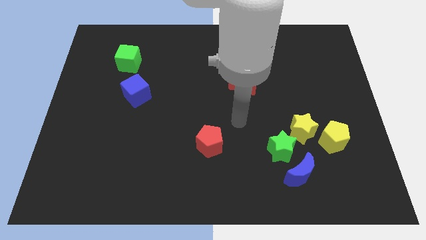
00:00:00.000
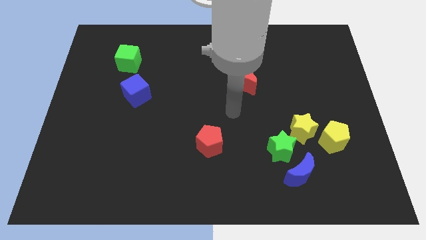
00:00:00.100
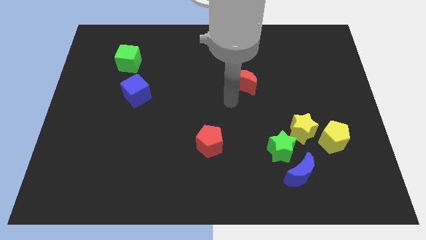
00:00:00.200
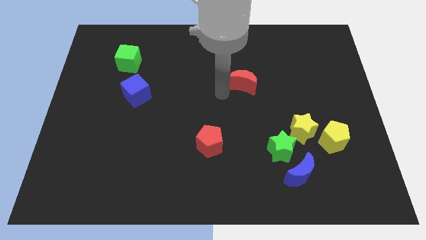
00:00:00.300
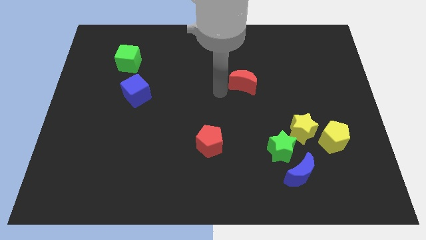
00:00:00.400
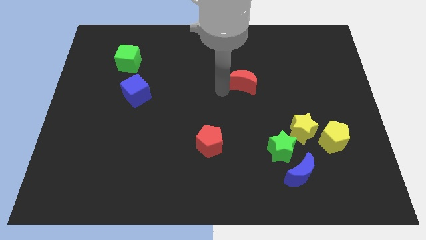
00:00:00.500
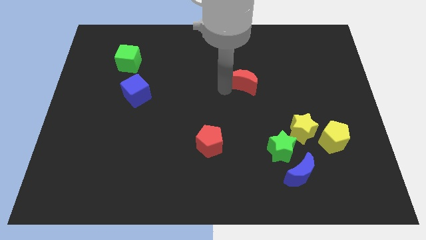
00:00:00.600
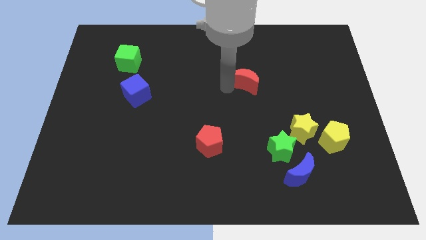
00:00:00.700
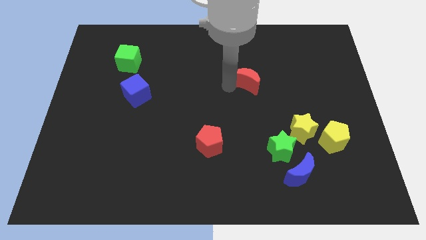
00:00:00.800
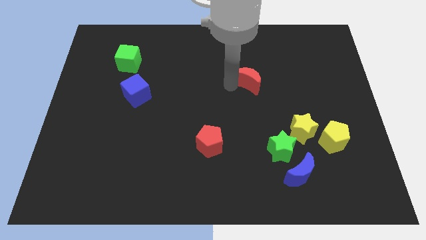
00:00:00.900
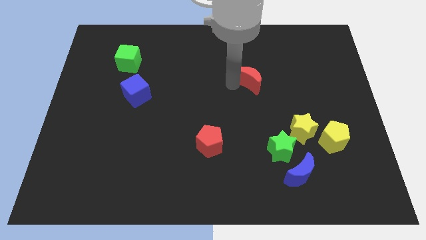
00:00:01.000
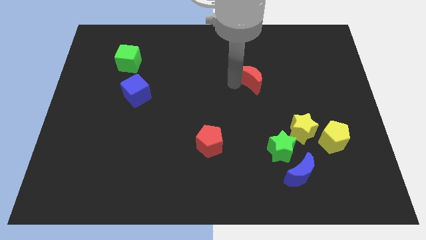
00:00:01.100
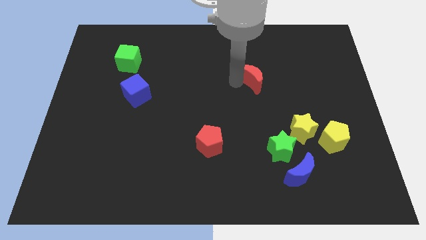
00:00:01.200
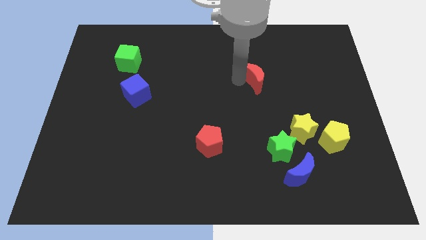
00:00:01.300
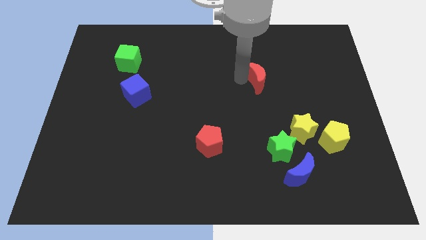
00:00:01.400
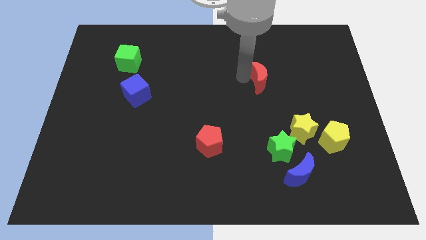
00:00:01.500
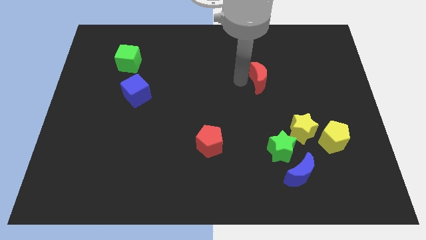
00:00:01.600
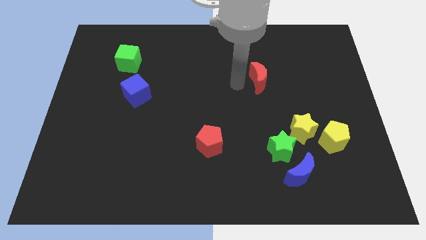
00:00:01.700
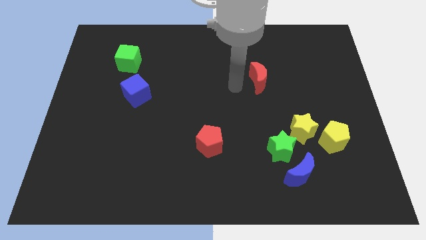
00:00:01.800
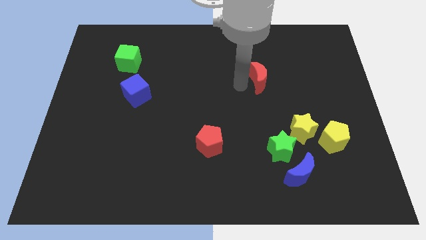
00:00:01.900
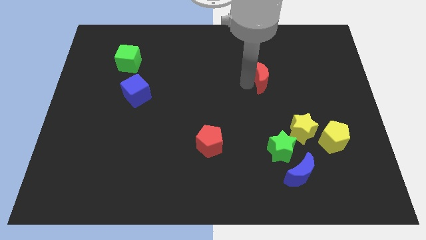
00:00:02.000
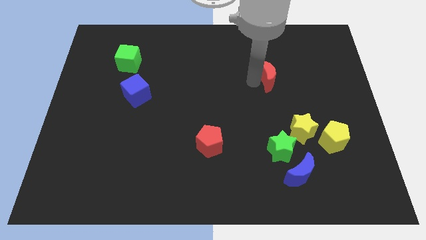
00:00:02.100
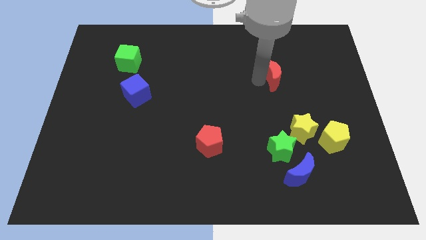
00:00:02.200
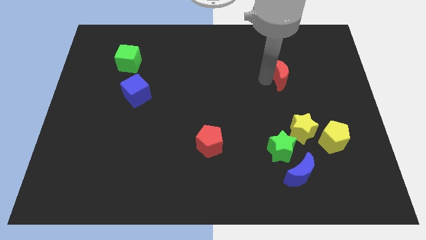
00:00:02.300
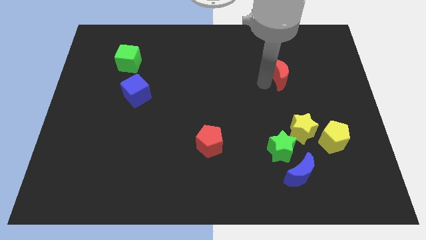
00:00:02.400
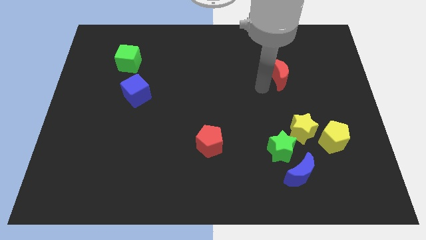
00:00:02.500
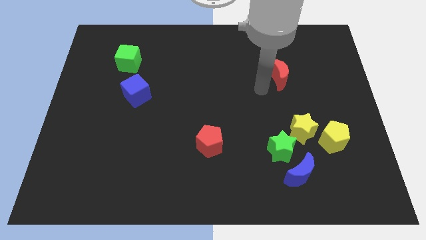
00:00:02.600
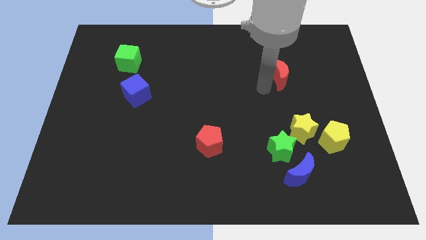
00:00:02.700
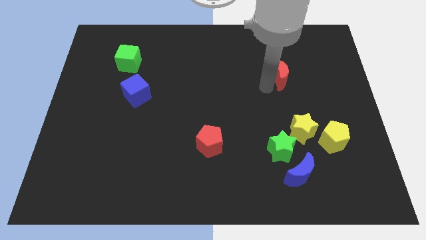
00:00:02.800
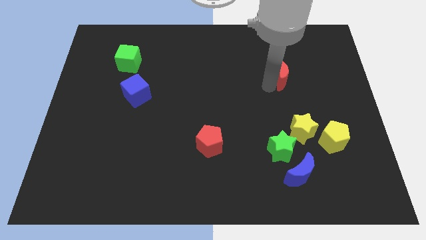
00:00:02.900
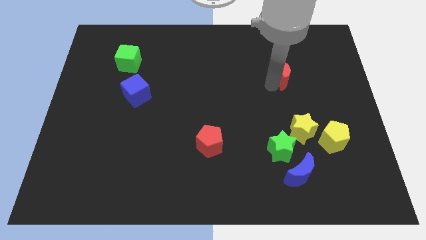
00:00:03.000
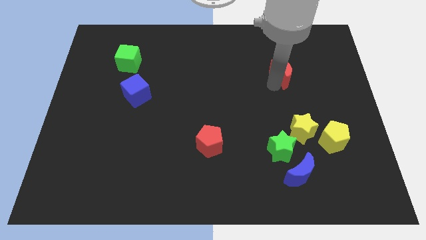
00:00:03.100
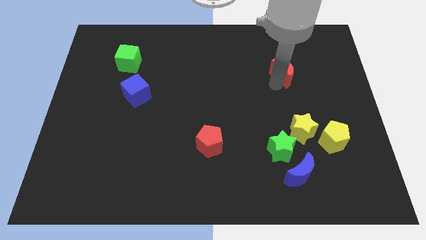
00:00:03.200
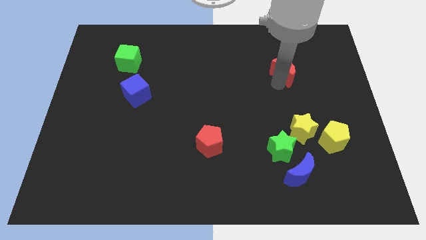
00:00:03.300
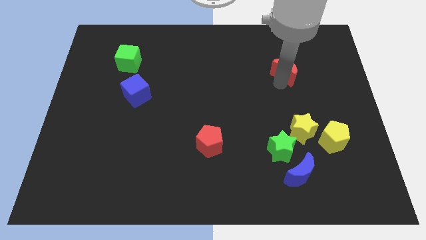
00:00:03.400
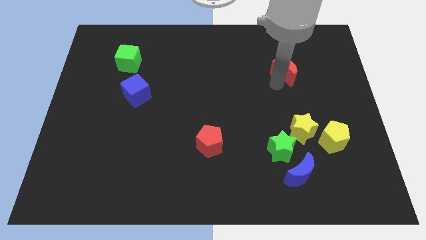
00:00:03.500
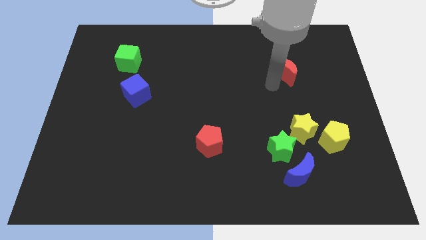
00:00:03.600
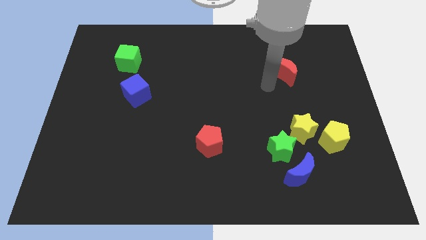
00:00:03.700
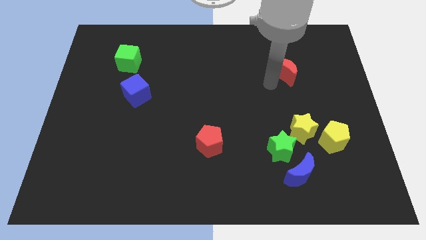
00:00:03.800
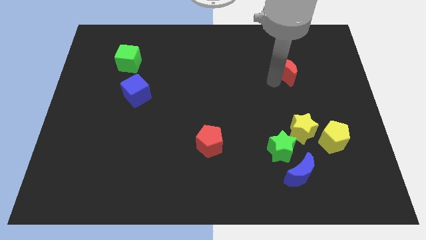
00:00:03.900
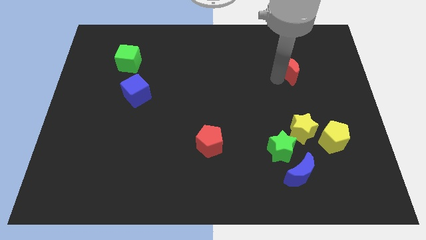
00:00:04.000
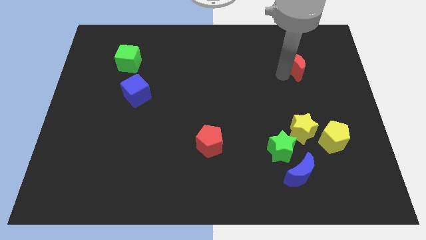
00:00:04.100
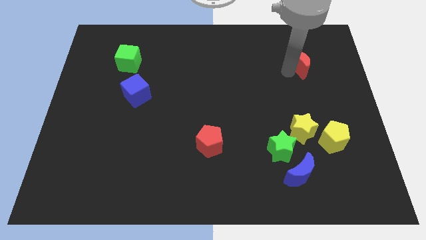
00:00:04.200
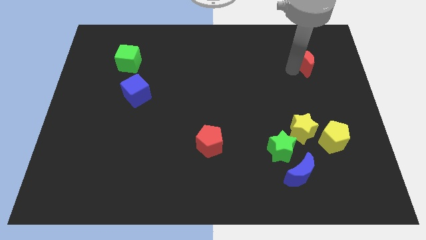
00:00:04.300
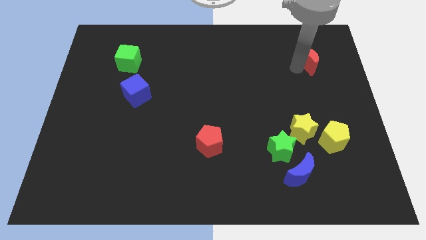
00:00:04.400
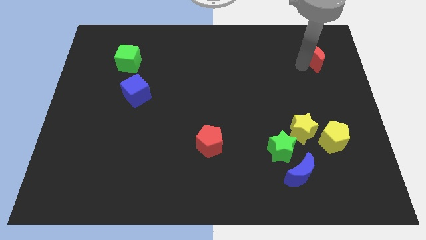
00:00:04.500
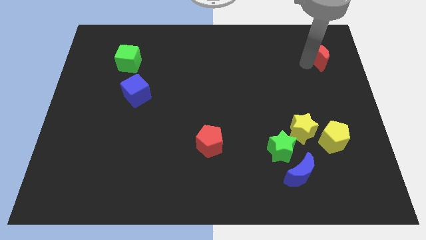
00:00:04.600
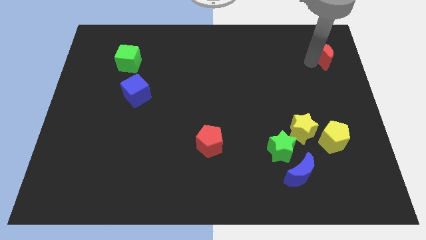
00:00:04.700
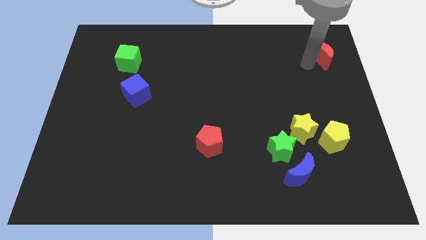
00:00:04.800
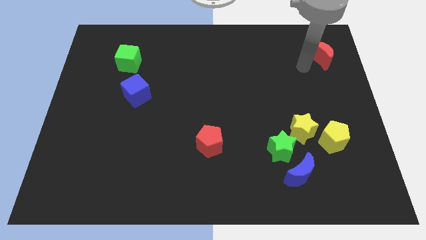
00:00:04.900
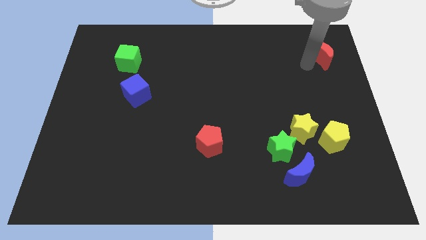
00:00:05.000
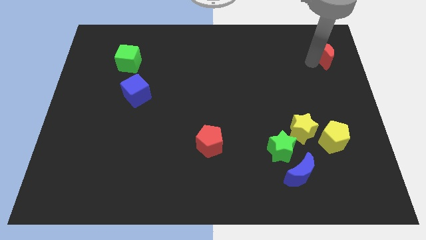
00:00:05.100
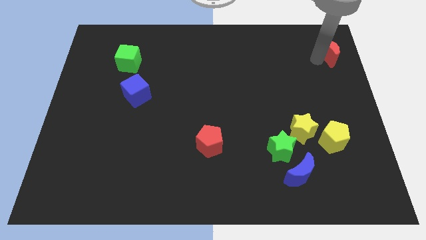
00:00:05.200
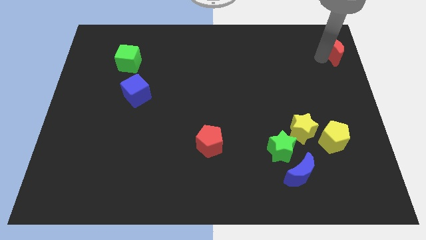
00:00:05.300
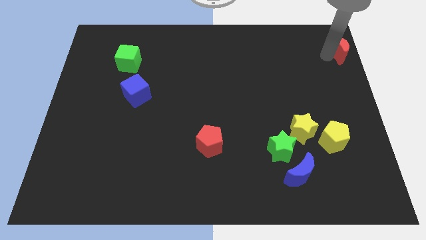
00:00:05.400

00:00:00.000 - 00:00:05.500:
move the red moon to the top right
